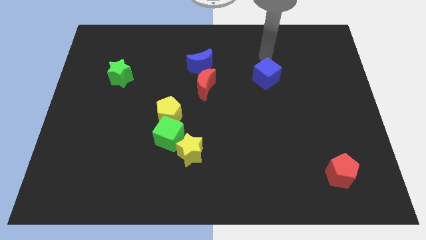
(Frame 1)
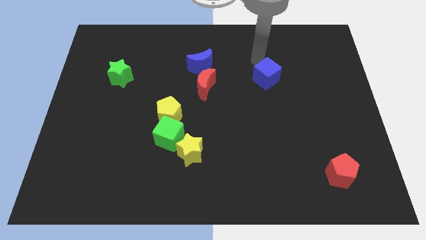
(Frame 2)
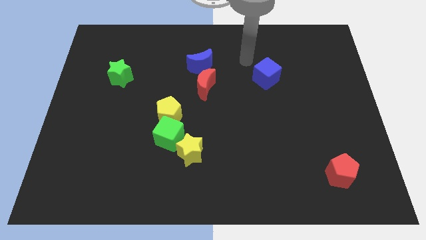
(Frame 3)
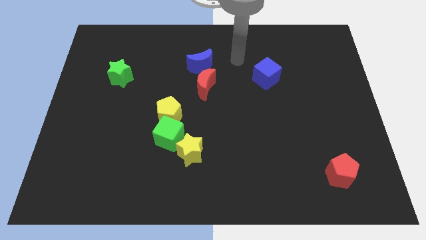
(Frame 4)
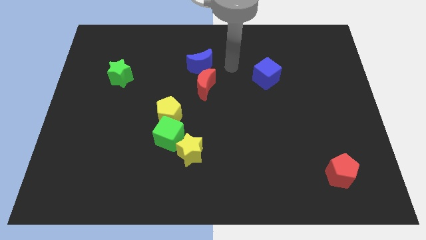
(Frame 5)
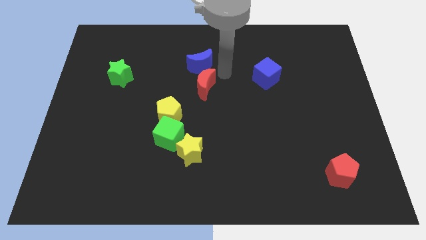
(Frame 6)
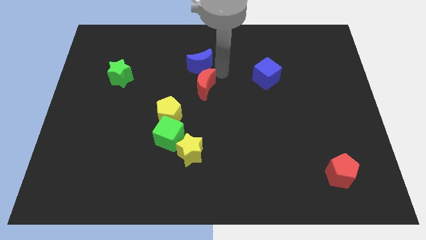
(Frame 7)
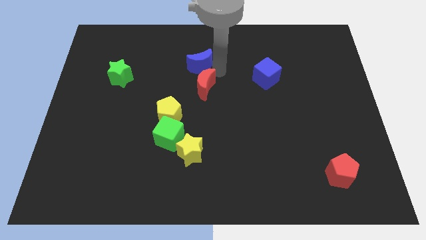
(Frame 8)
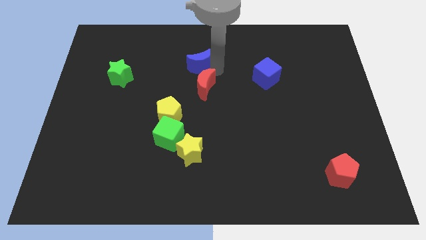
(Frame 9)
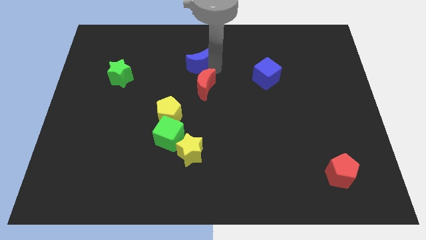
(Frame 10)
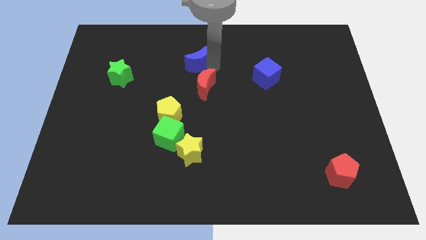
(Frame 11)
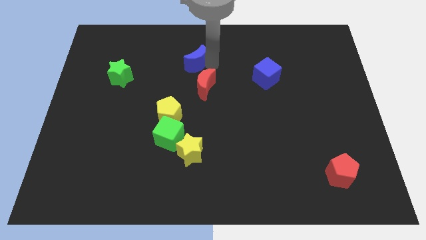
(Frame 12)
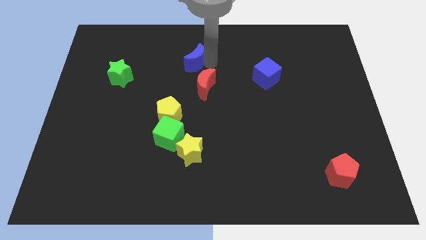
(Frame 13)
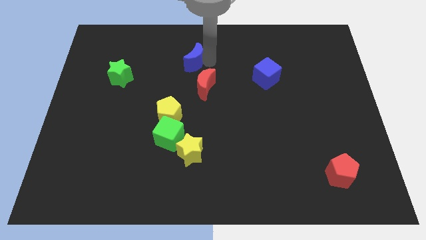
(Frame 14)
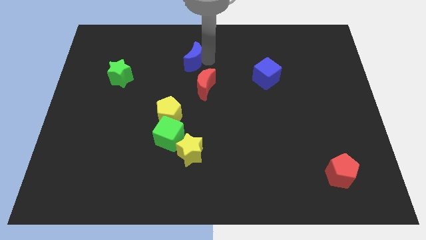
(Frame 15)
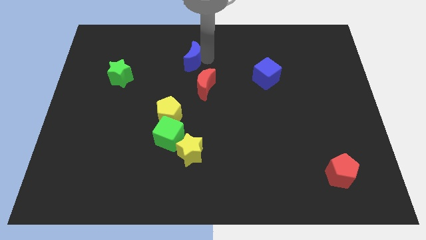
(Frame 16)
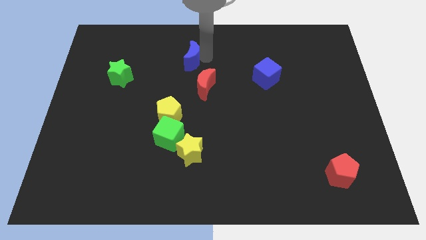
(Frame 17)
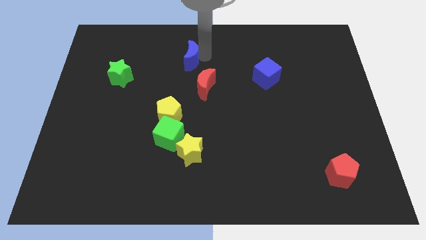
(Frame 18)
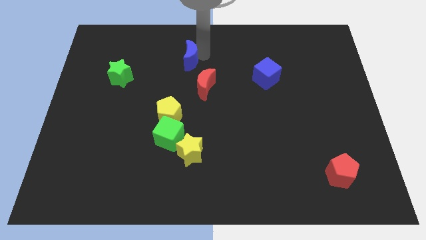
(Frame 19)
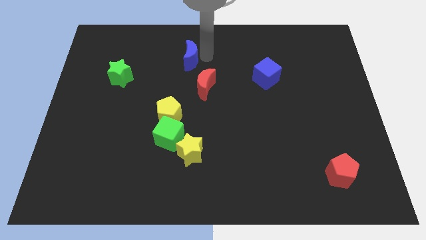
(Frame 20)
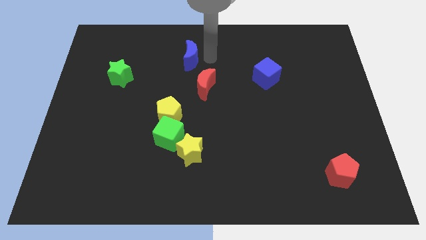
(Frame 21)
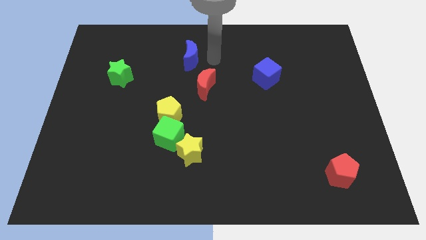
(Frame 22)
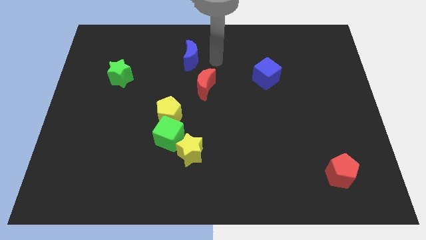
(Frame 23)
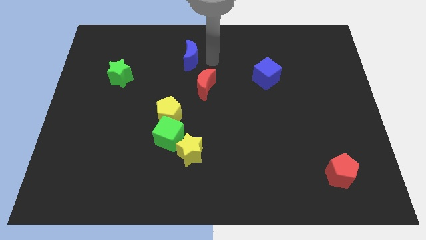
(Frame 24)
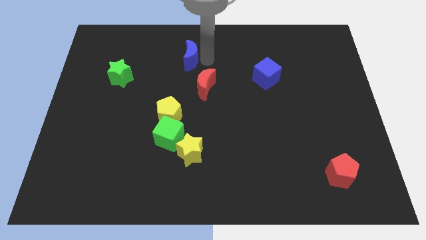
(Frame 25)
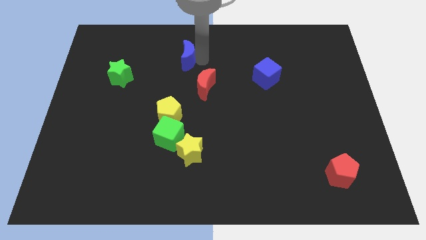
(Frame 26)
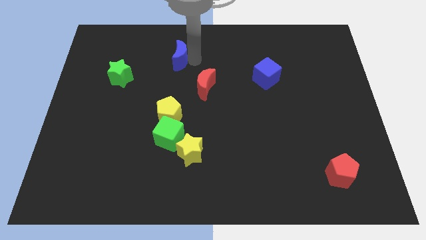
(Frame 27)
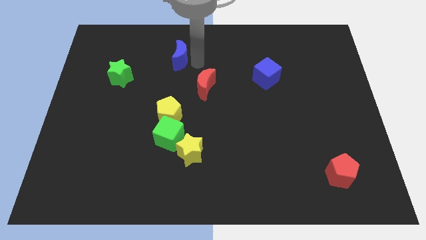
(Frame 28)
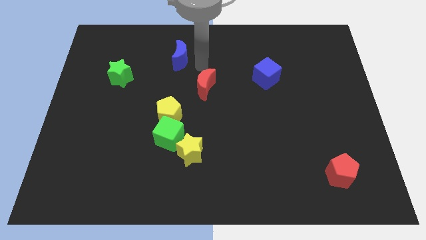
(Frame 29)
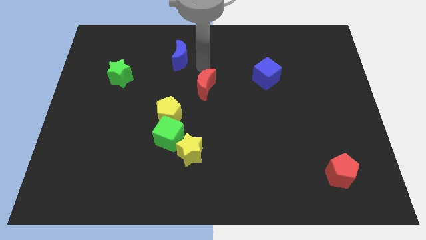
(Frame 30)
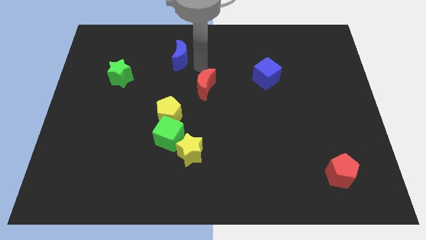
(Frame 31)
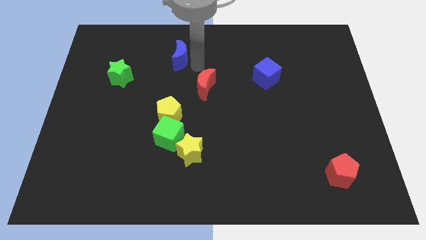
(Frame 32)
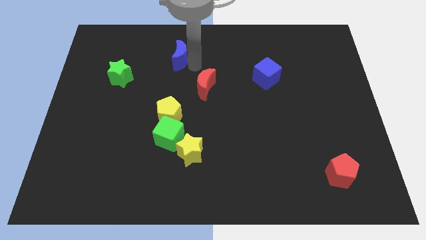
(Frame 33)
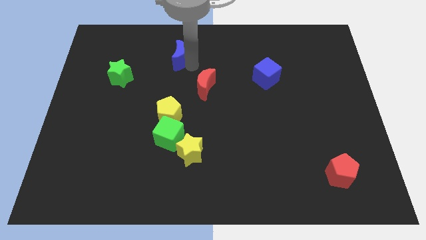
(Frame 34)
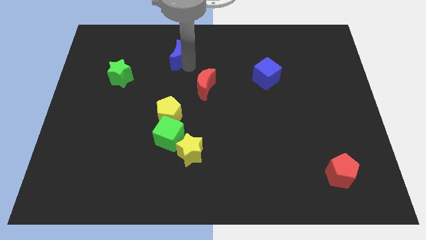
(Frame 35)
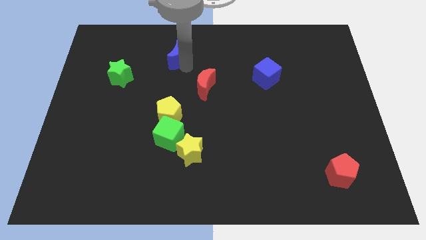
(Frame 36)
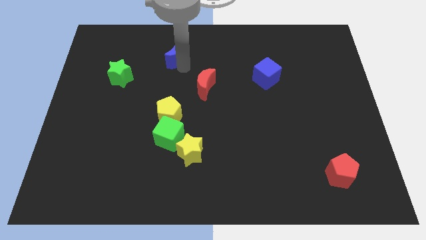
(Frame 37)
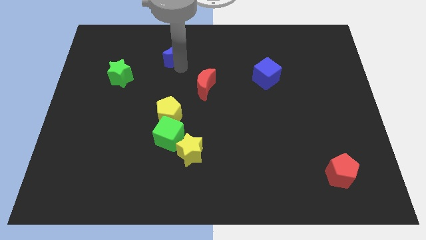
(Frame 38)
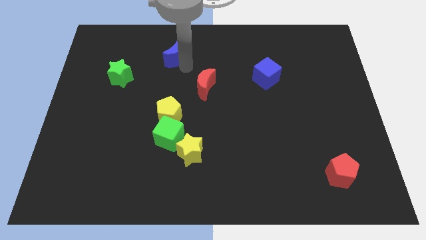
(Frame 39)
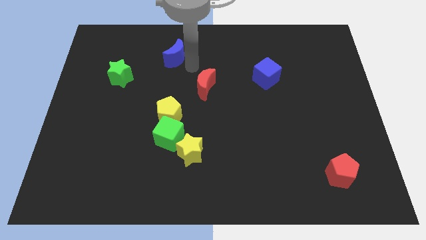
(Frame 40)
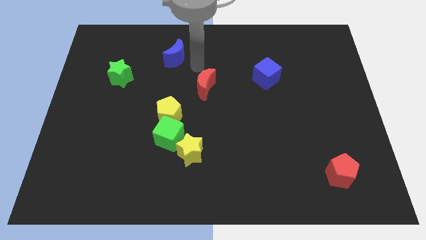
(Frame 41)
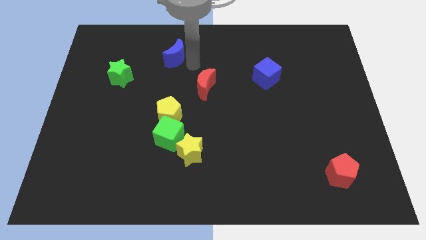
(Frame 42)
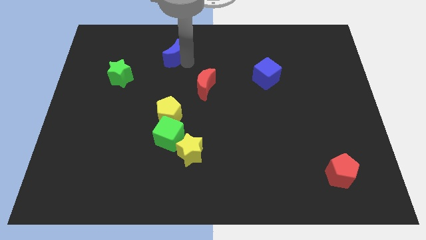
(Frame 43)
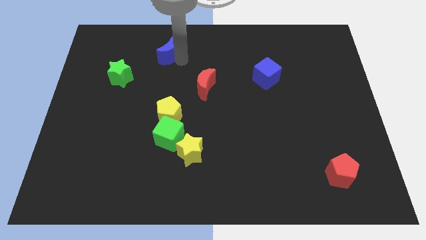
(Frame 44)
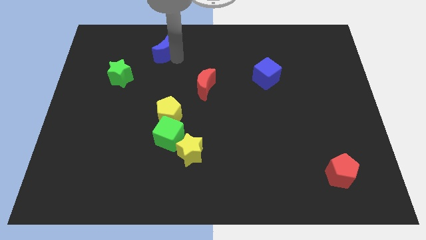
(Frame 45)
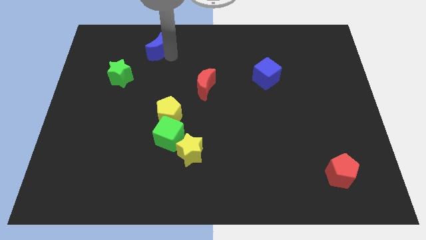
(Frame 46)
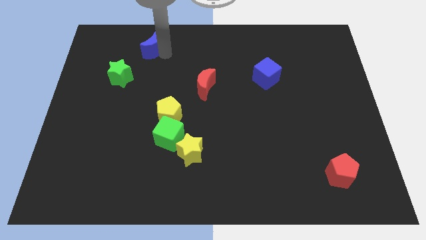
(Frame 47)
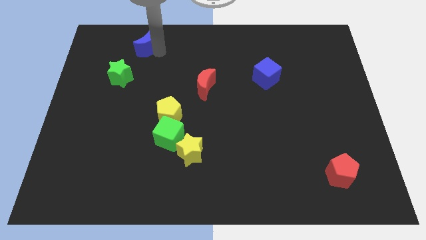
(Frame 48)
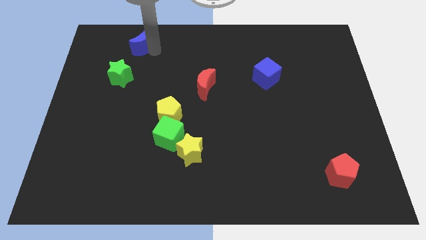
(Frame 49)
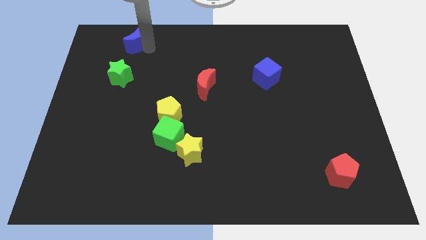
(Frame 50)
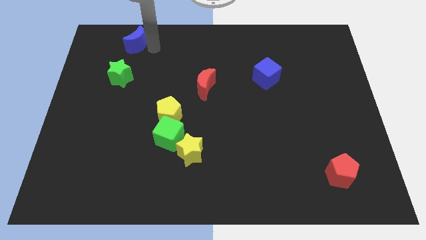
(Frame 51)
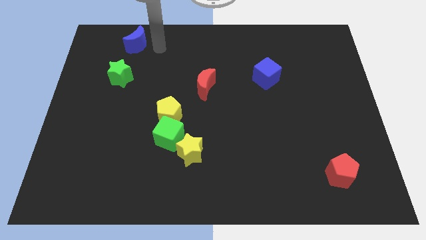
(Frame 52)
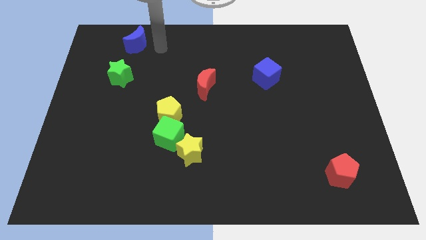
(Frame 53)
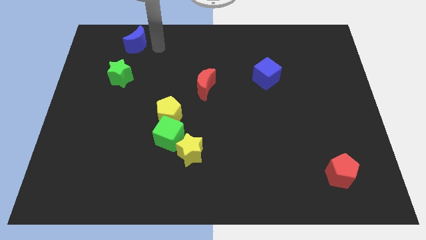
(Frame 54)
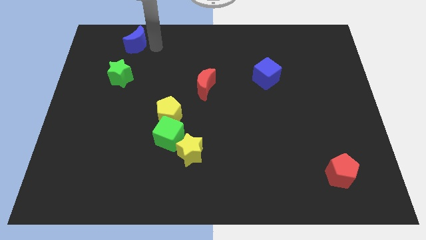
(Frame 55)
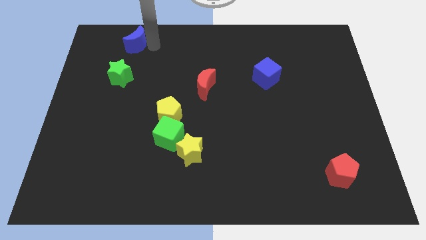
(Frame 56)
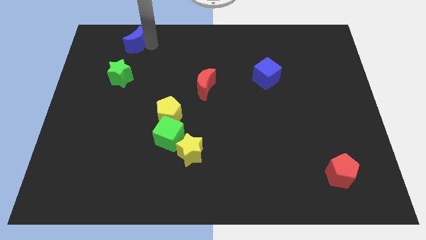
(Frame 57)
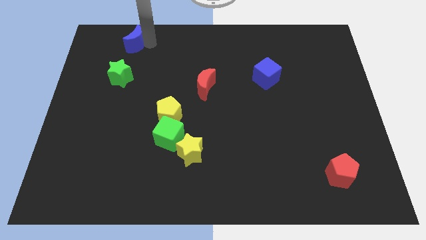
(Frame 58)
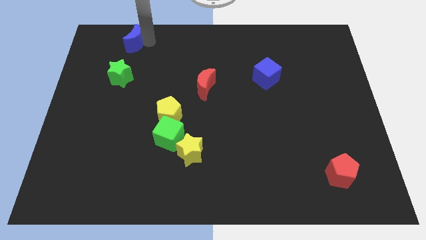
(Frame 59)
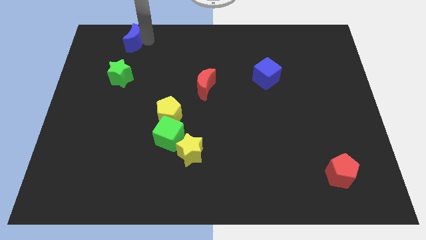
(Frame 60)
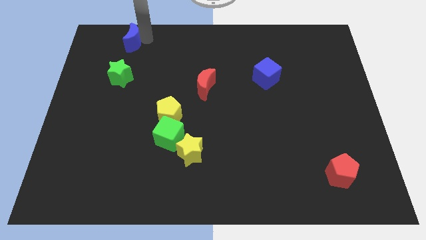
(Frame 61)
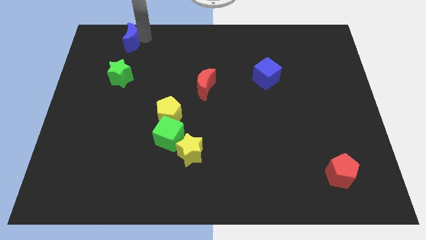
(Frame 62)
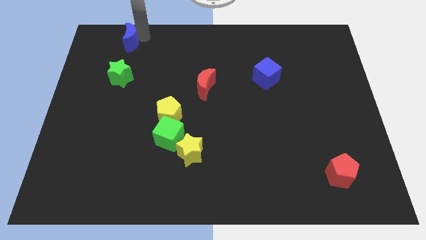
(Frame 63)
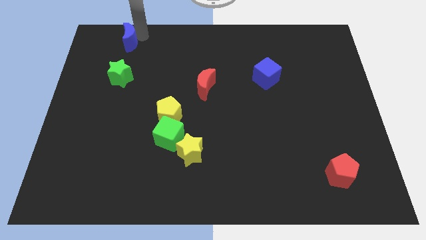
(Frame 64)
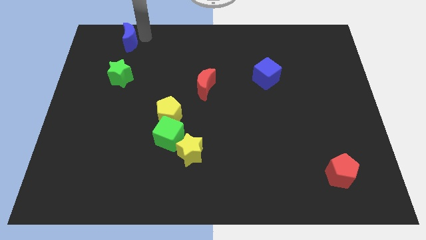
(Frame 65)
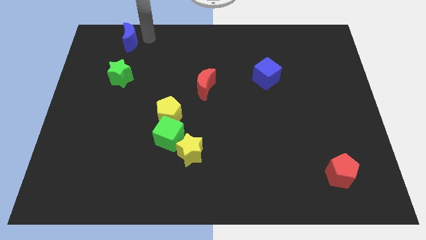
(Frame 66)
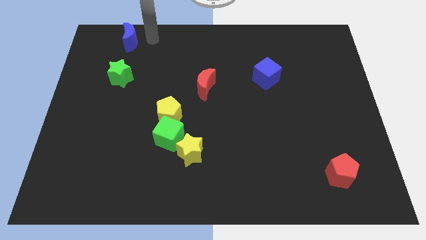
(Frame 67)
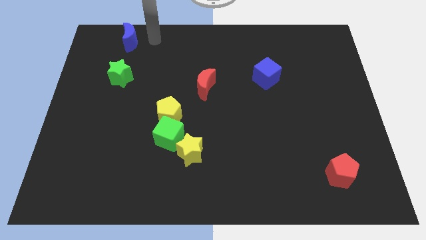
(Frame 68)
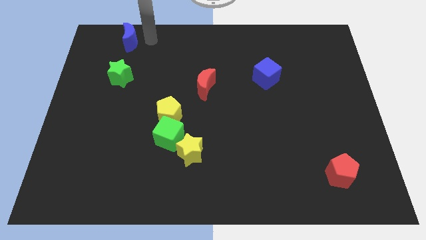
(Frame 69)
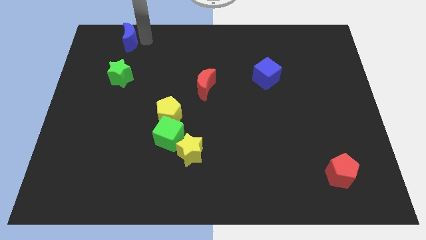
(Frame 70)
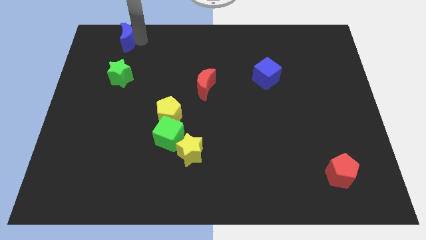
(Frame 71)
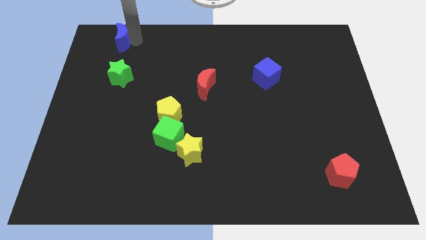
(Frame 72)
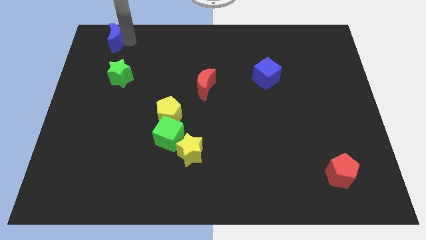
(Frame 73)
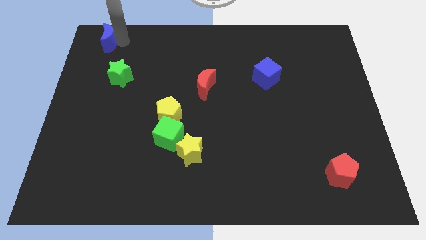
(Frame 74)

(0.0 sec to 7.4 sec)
push the blue moon to the upper left corner
